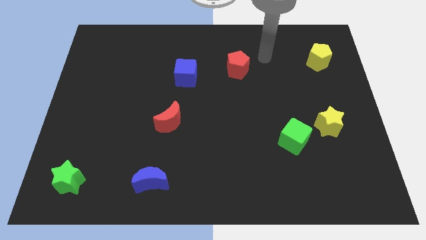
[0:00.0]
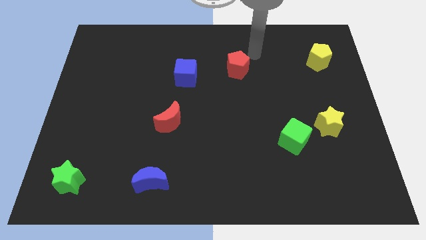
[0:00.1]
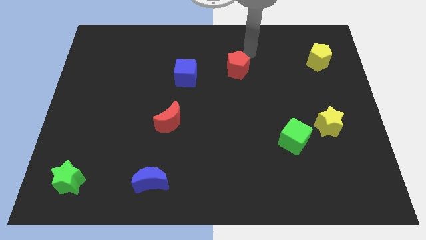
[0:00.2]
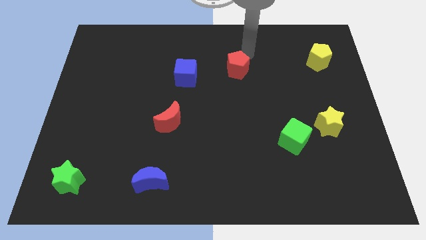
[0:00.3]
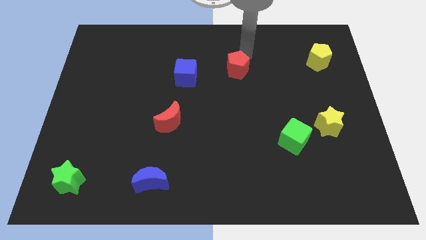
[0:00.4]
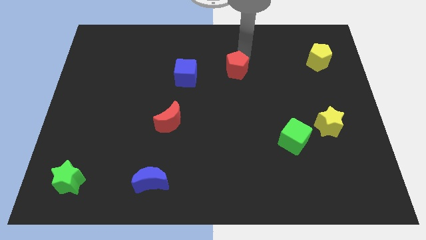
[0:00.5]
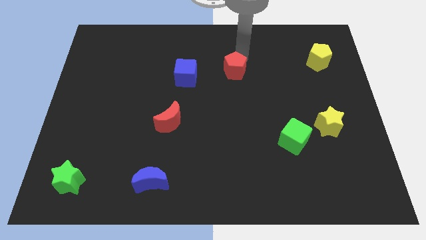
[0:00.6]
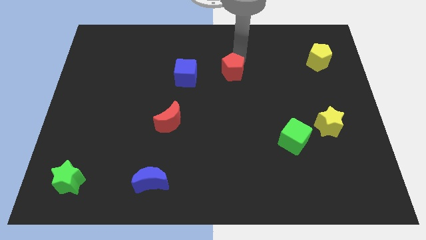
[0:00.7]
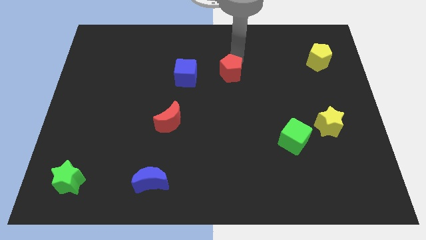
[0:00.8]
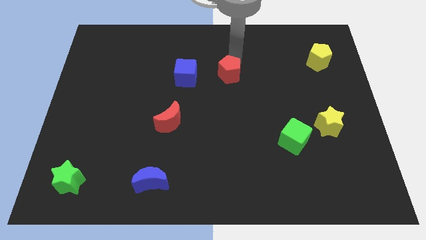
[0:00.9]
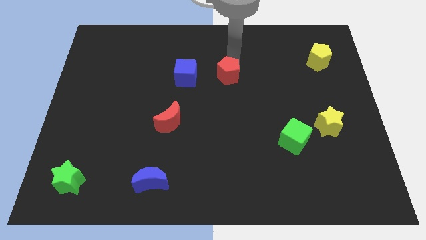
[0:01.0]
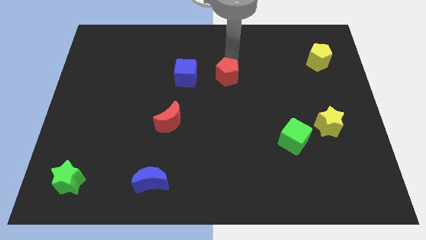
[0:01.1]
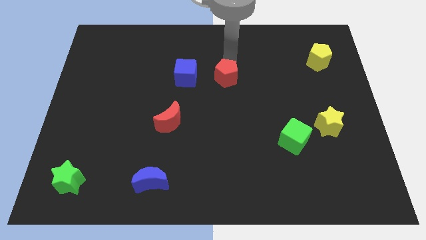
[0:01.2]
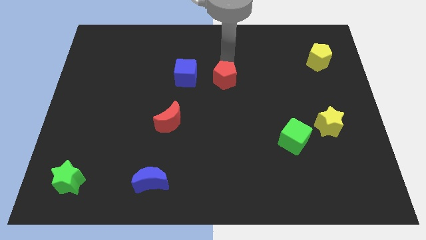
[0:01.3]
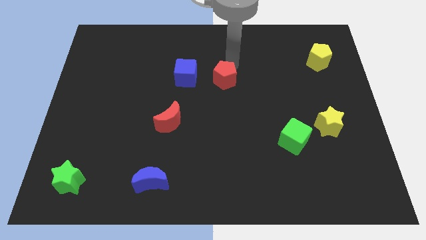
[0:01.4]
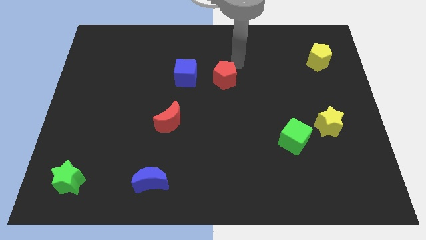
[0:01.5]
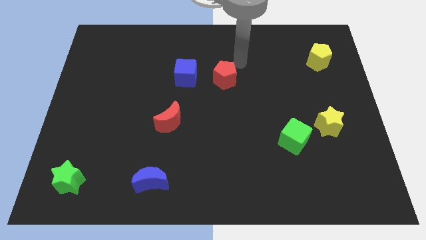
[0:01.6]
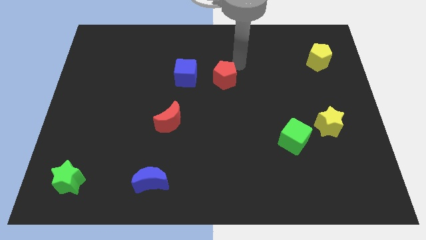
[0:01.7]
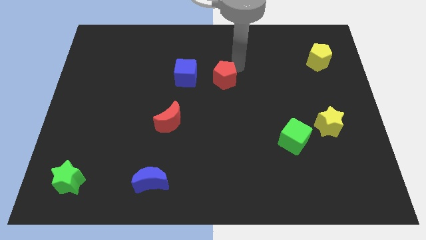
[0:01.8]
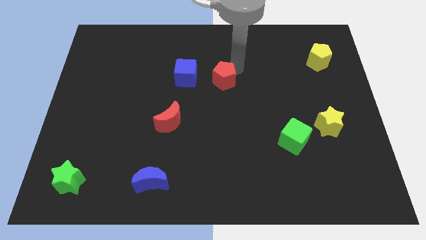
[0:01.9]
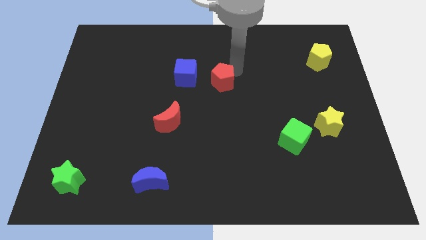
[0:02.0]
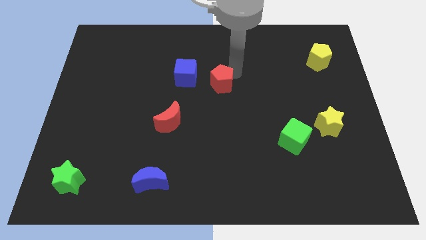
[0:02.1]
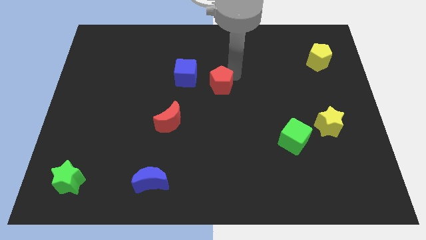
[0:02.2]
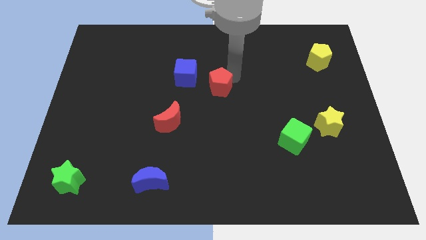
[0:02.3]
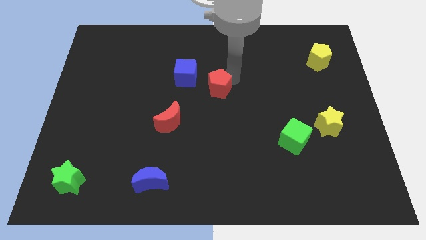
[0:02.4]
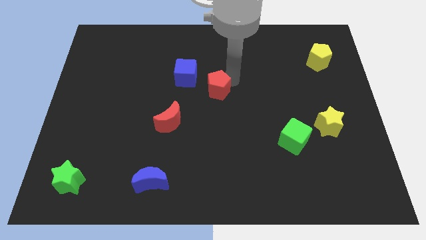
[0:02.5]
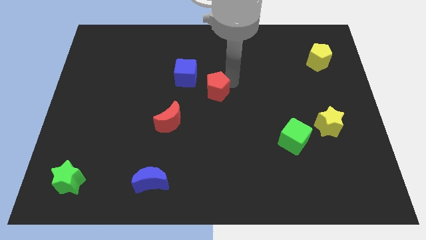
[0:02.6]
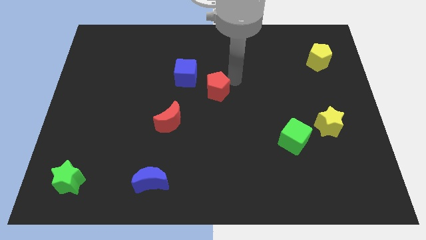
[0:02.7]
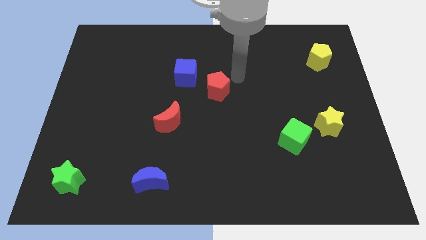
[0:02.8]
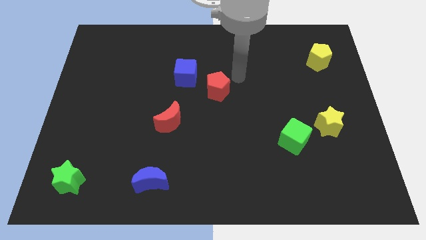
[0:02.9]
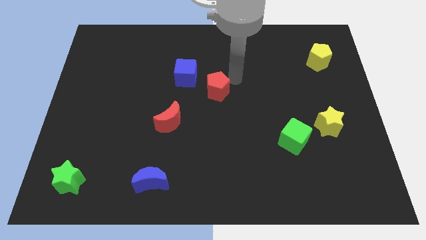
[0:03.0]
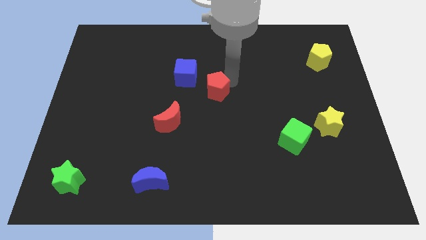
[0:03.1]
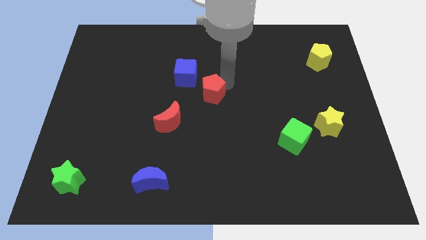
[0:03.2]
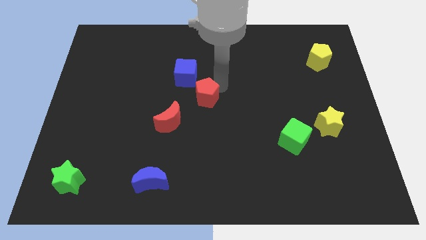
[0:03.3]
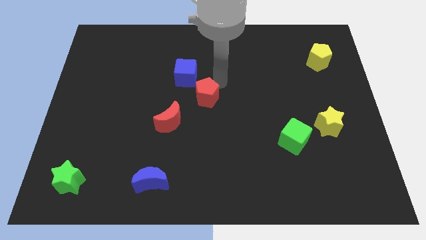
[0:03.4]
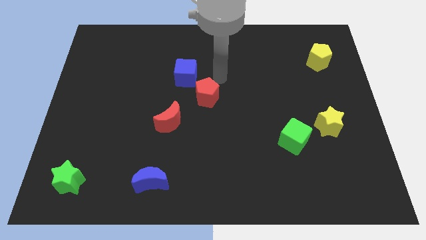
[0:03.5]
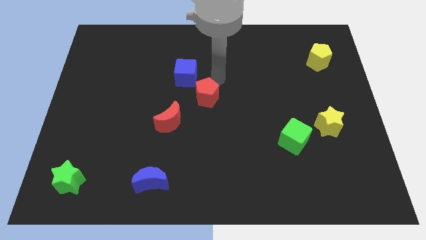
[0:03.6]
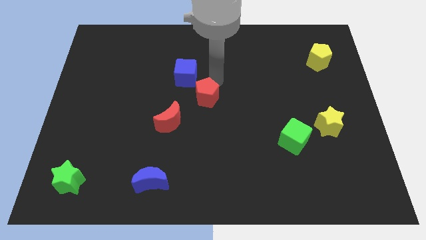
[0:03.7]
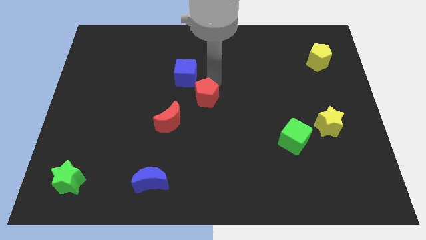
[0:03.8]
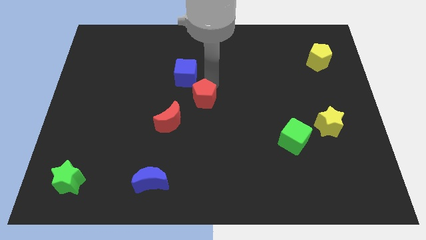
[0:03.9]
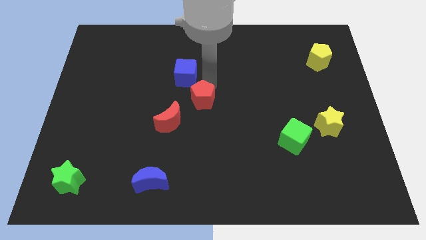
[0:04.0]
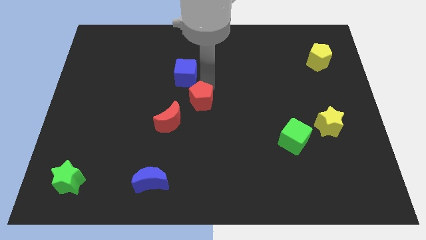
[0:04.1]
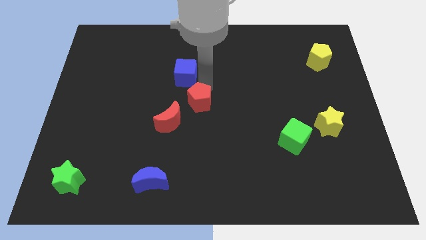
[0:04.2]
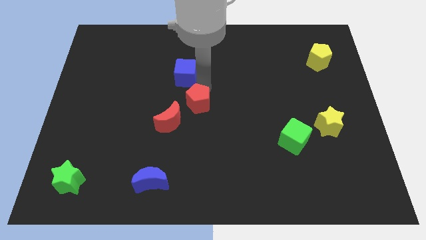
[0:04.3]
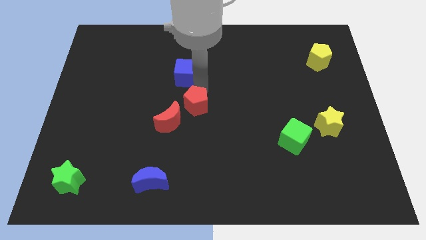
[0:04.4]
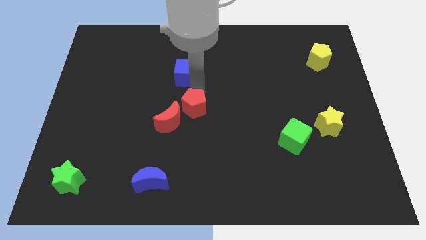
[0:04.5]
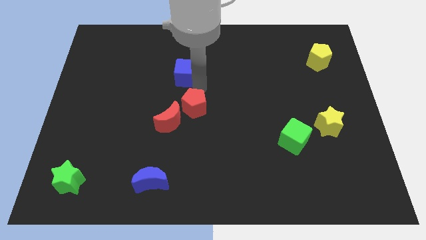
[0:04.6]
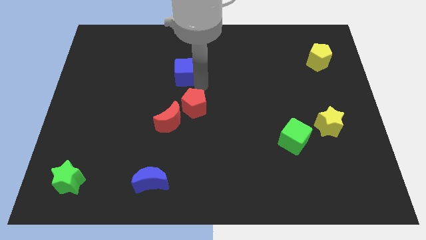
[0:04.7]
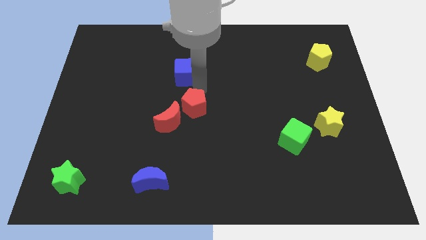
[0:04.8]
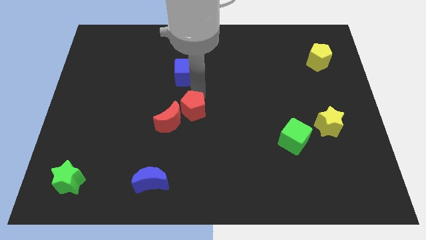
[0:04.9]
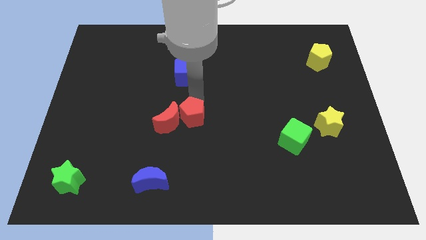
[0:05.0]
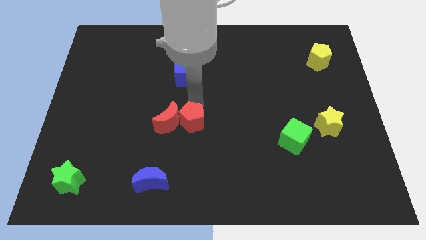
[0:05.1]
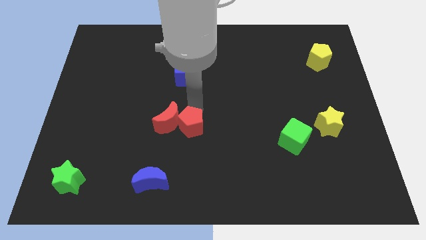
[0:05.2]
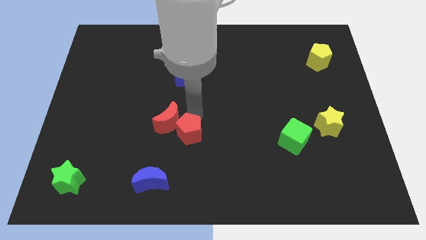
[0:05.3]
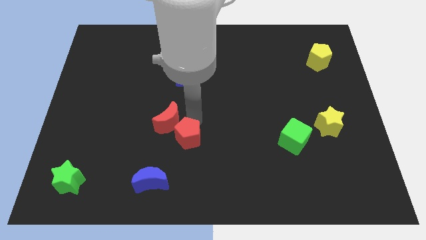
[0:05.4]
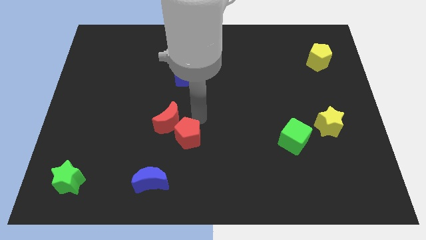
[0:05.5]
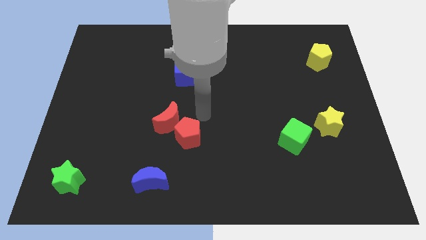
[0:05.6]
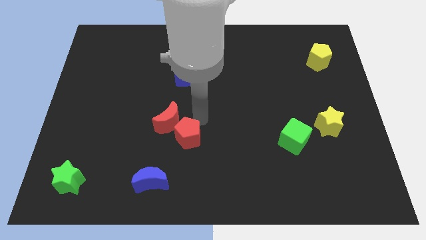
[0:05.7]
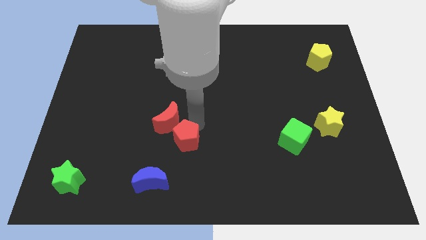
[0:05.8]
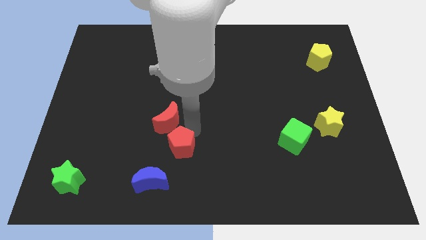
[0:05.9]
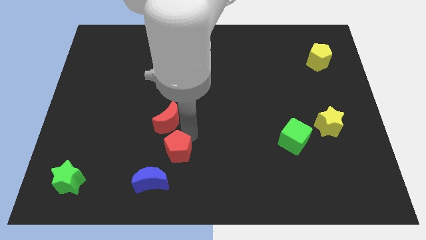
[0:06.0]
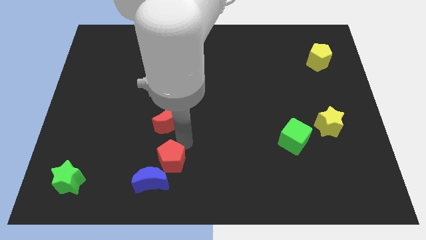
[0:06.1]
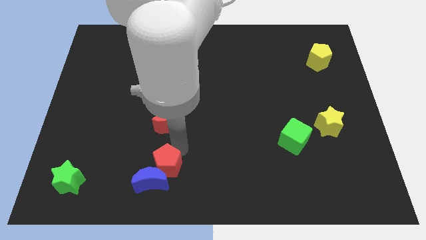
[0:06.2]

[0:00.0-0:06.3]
move the red pentagon next to the blue moon

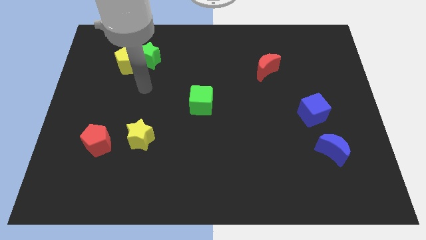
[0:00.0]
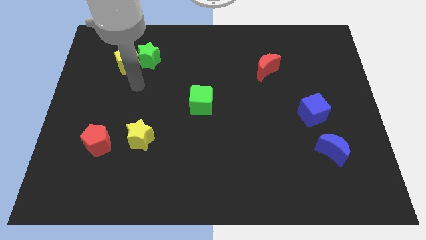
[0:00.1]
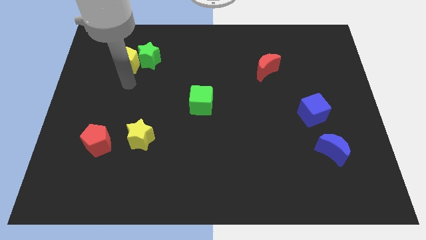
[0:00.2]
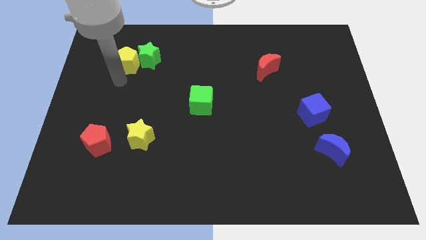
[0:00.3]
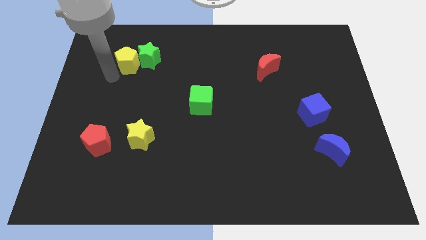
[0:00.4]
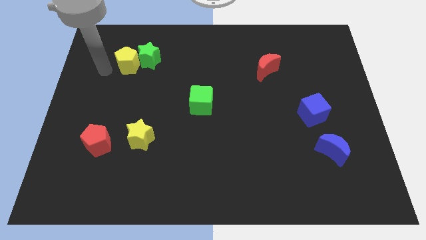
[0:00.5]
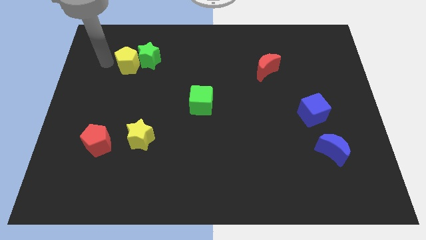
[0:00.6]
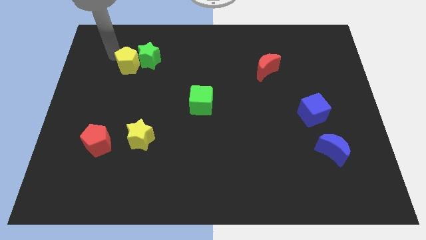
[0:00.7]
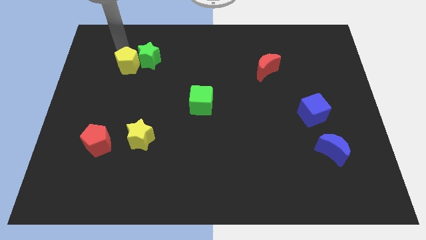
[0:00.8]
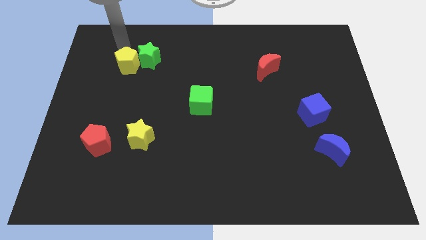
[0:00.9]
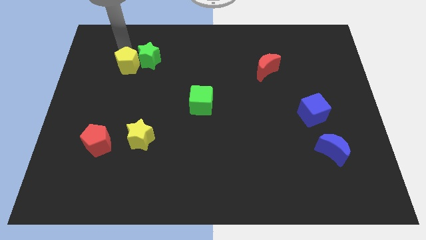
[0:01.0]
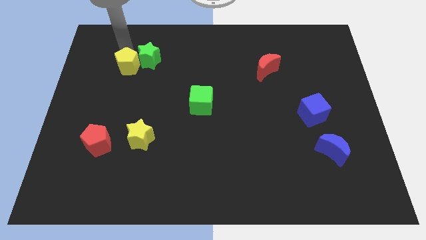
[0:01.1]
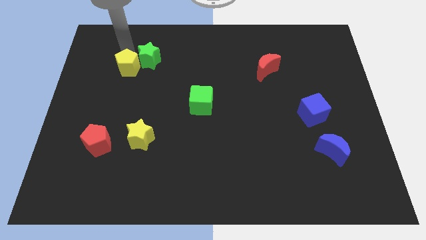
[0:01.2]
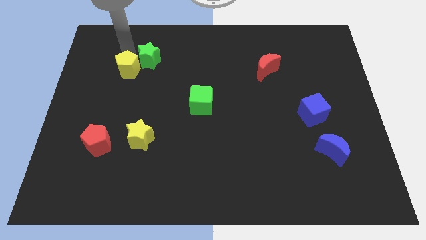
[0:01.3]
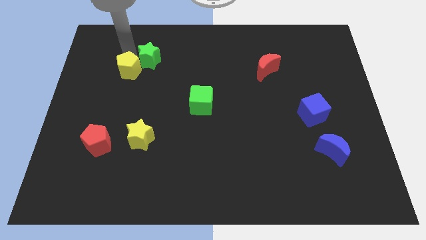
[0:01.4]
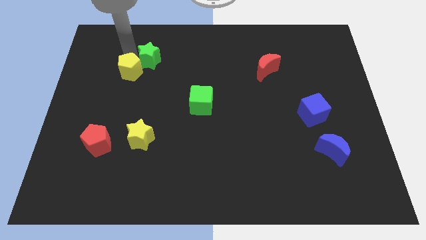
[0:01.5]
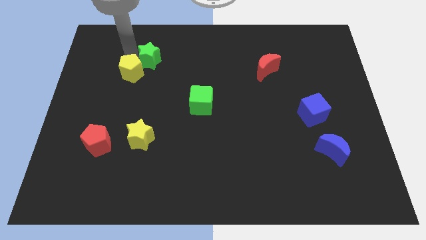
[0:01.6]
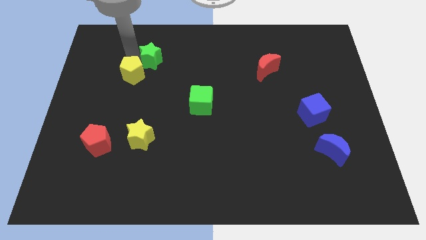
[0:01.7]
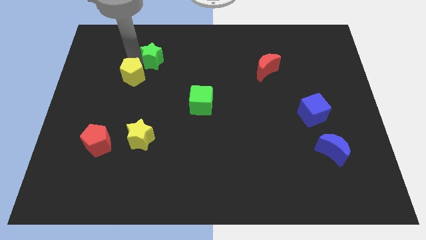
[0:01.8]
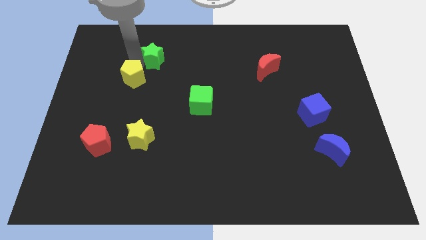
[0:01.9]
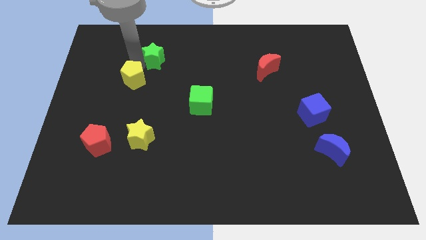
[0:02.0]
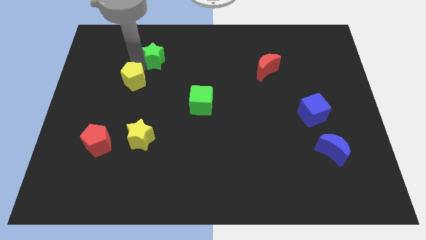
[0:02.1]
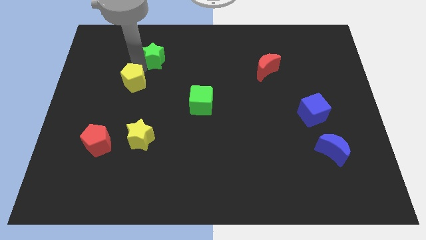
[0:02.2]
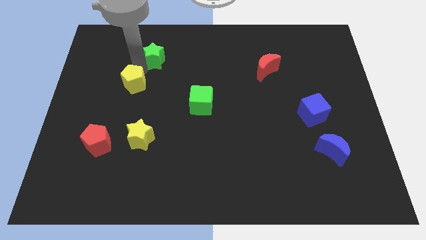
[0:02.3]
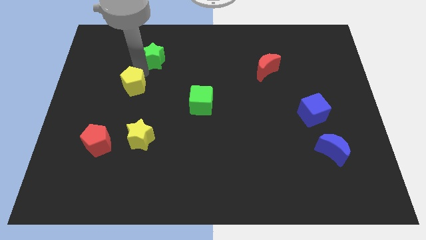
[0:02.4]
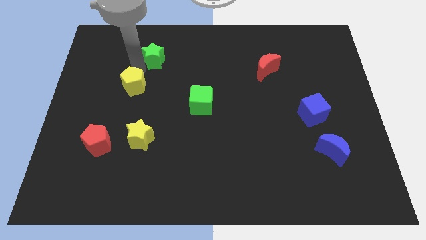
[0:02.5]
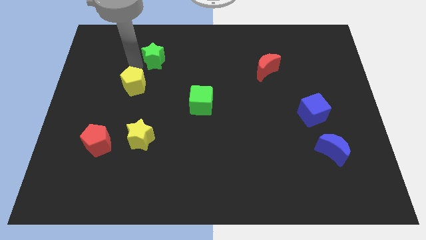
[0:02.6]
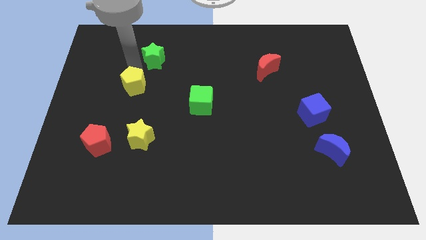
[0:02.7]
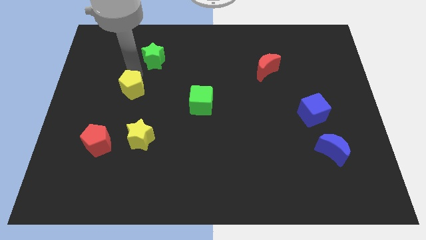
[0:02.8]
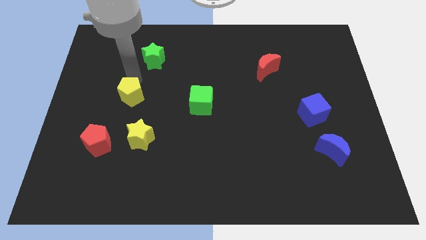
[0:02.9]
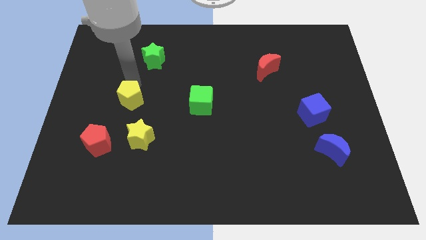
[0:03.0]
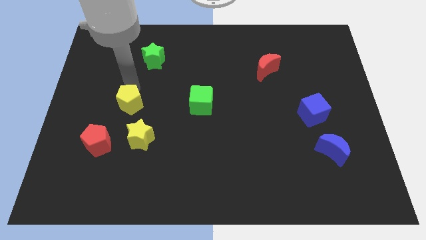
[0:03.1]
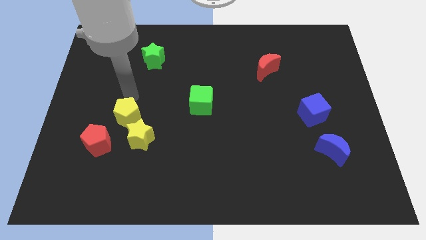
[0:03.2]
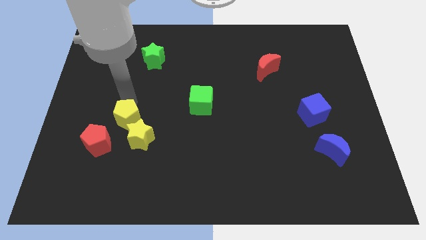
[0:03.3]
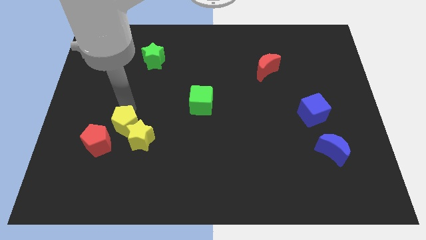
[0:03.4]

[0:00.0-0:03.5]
slide the yellow pentagon close to the yellow star
